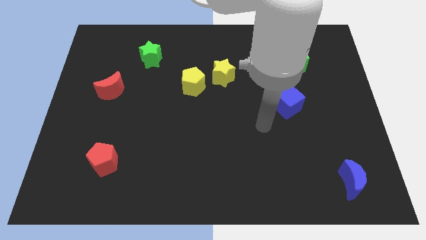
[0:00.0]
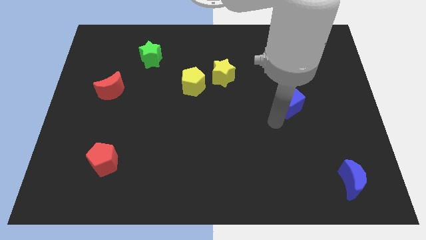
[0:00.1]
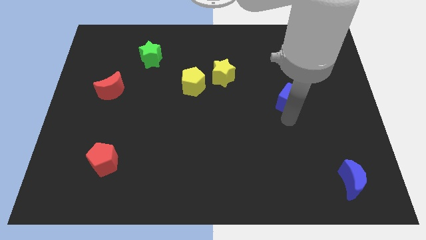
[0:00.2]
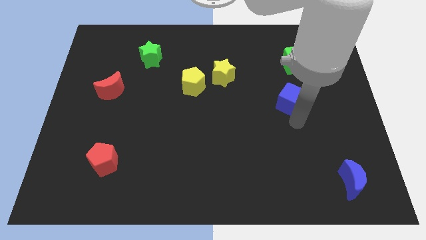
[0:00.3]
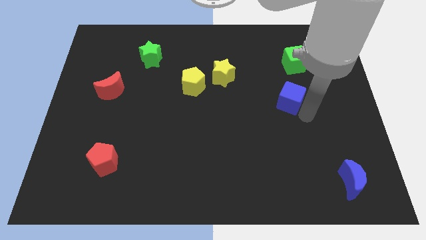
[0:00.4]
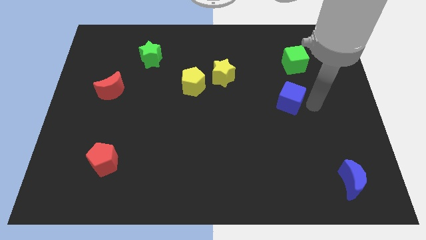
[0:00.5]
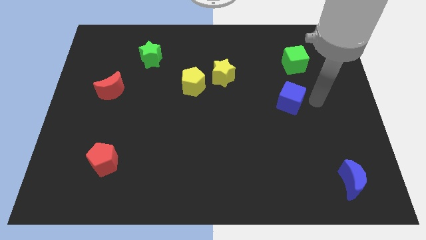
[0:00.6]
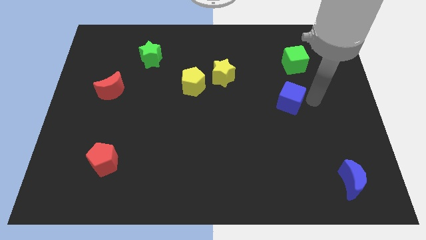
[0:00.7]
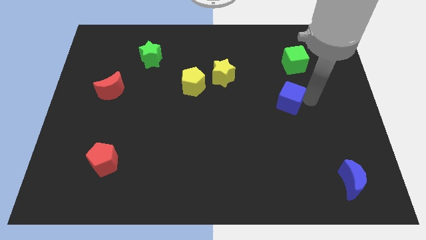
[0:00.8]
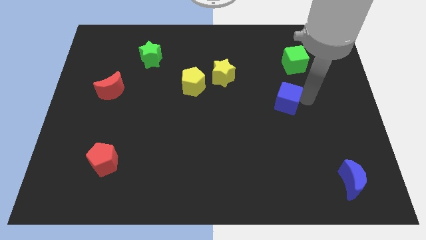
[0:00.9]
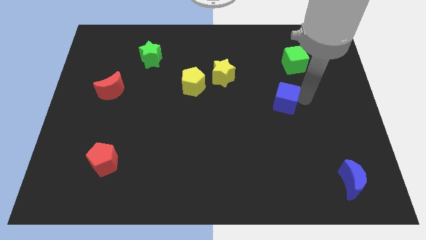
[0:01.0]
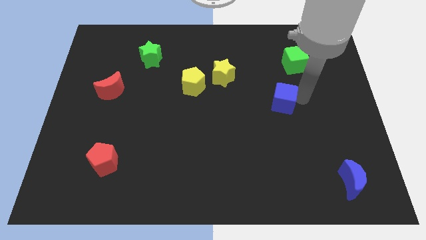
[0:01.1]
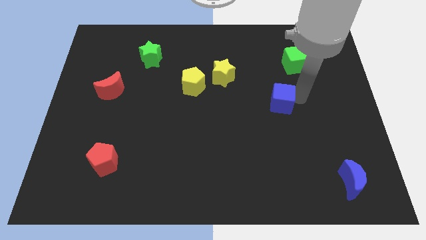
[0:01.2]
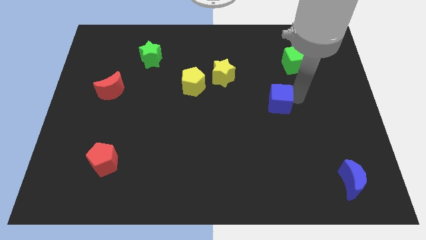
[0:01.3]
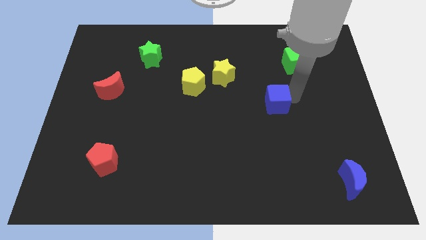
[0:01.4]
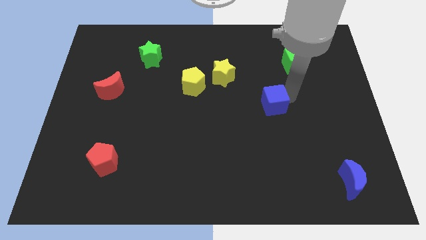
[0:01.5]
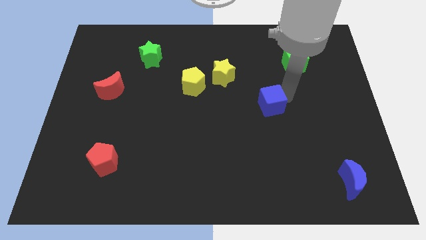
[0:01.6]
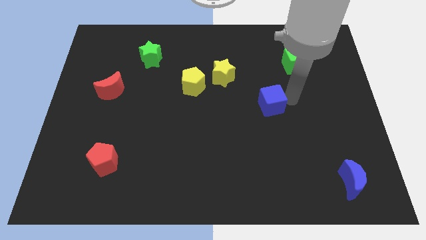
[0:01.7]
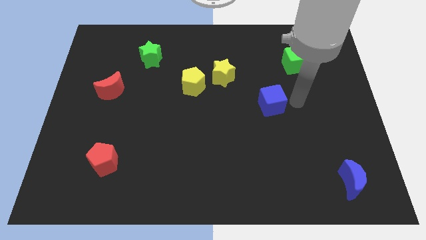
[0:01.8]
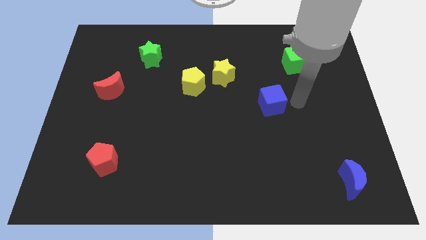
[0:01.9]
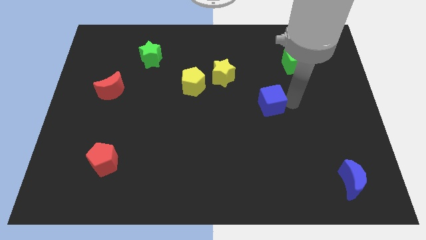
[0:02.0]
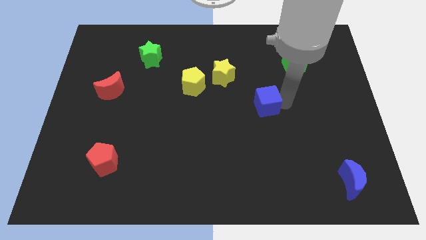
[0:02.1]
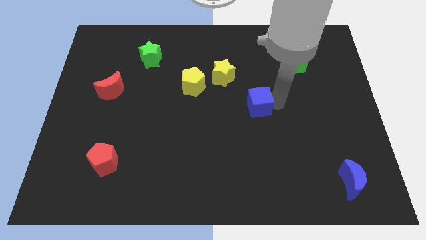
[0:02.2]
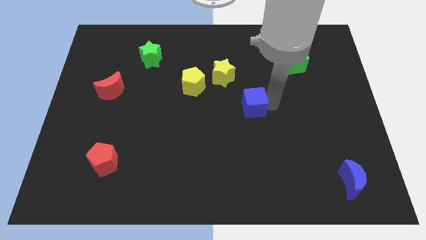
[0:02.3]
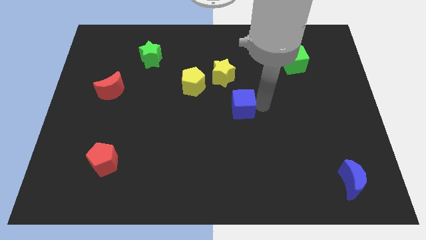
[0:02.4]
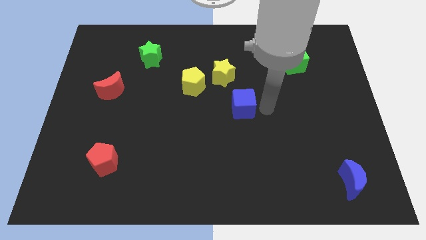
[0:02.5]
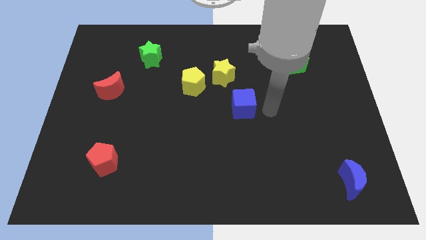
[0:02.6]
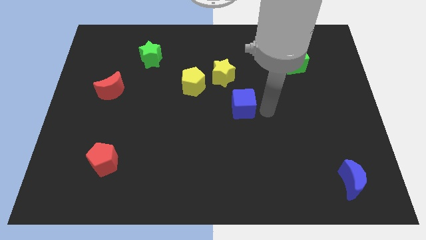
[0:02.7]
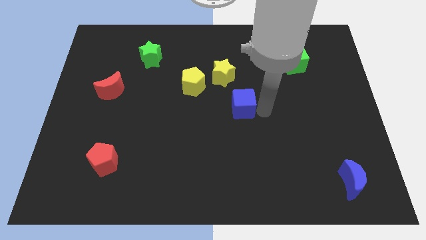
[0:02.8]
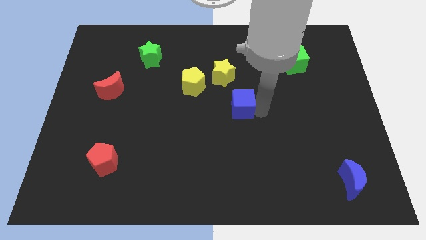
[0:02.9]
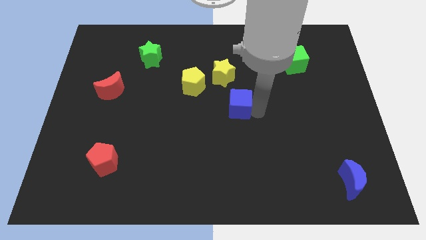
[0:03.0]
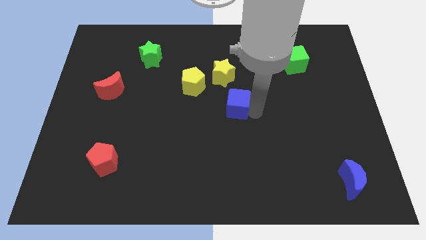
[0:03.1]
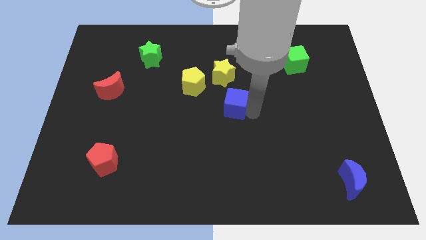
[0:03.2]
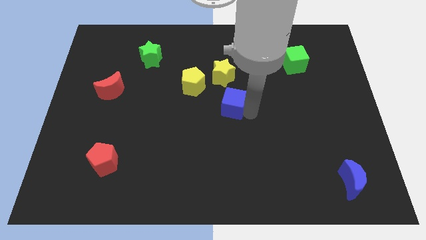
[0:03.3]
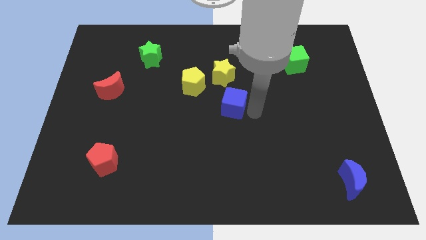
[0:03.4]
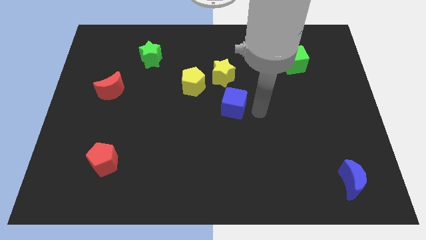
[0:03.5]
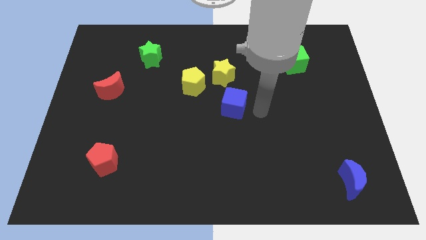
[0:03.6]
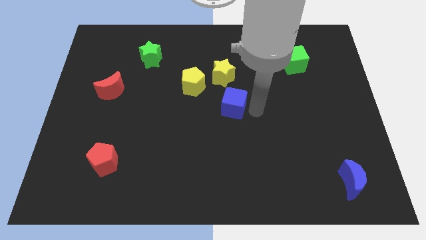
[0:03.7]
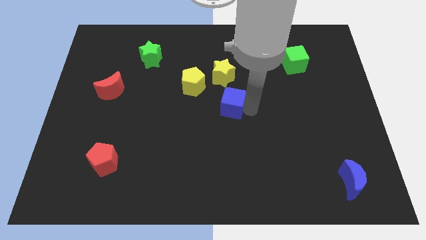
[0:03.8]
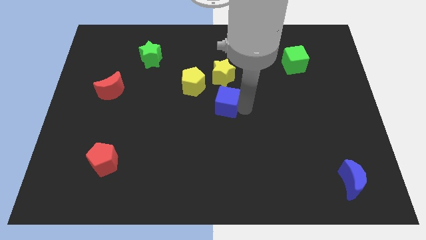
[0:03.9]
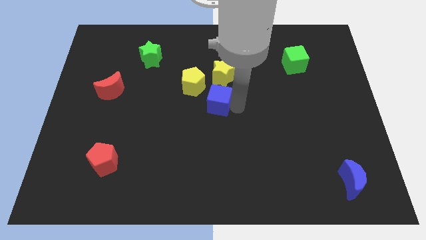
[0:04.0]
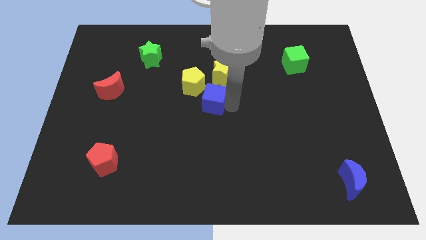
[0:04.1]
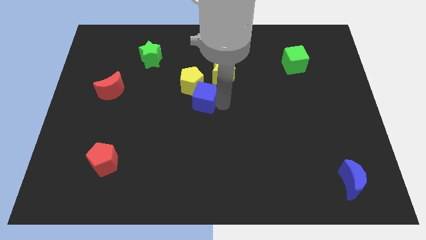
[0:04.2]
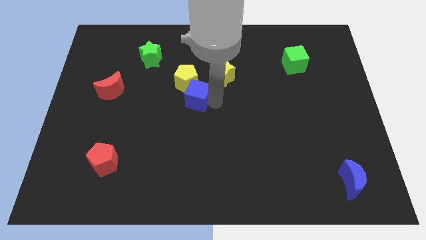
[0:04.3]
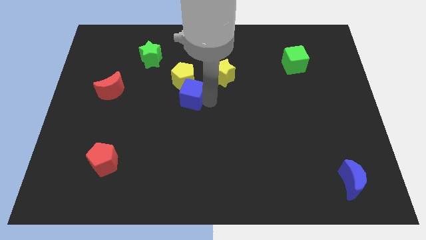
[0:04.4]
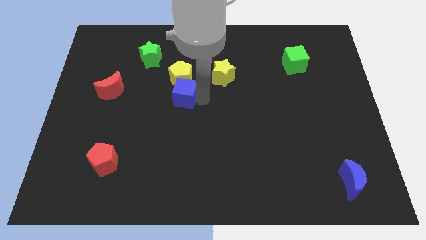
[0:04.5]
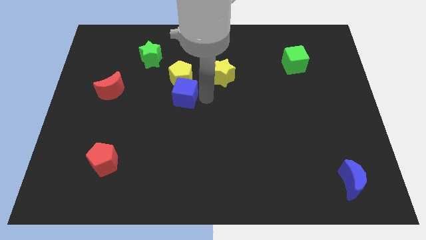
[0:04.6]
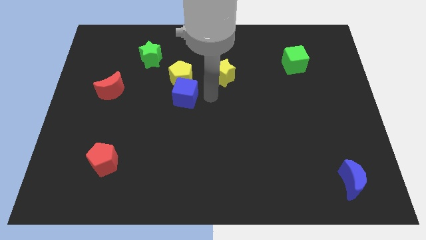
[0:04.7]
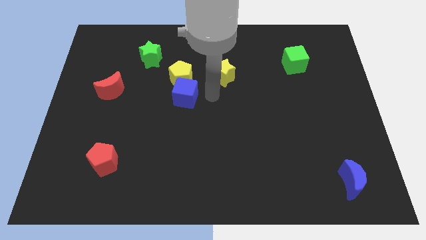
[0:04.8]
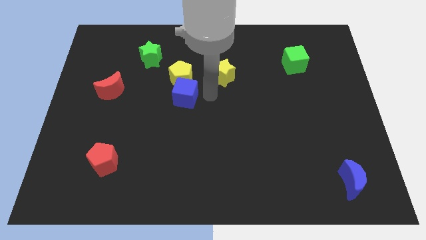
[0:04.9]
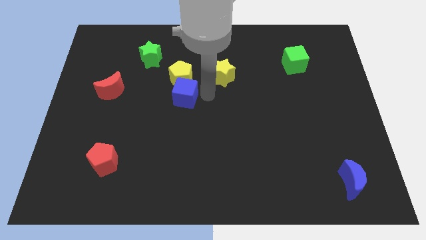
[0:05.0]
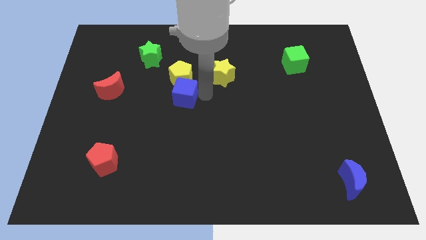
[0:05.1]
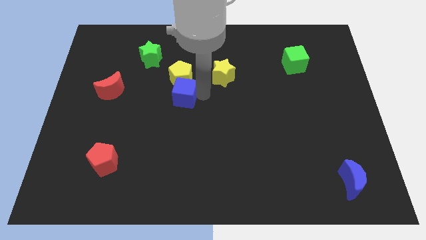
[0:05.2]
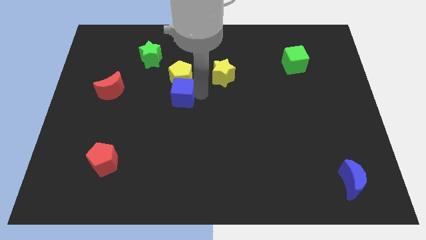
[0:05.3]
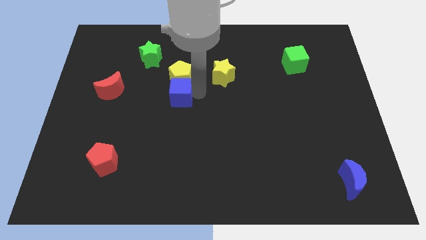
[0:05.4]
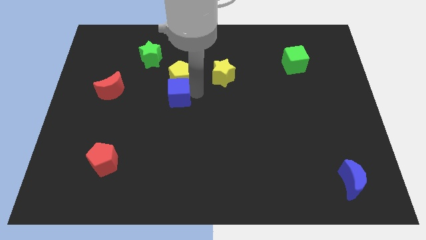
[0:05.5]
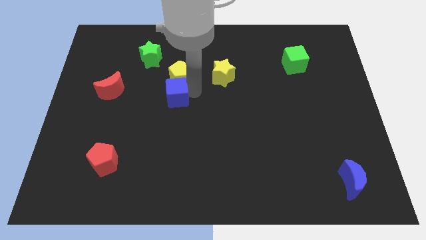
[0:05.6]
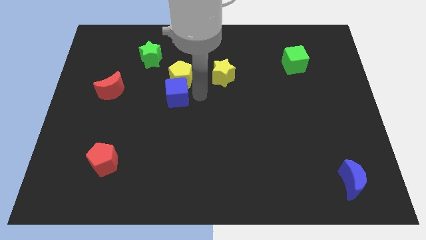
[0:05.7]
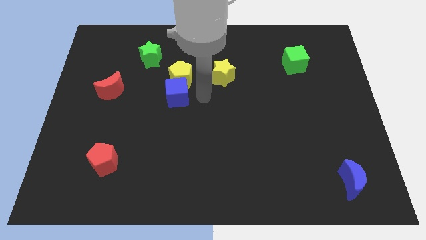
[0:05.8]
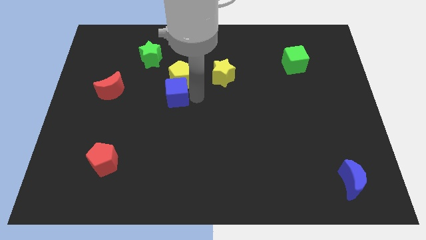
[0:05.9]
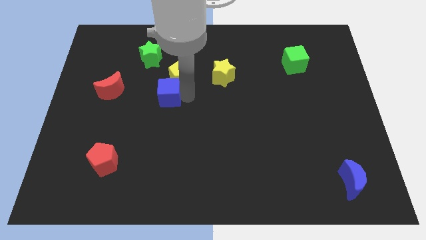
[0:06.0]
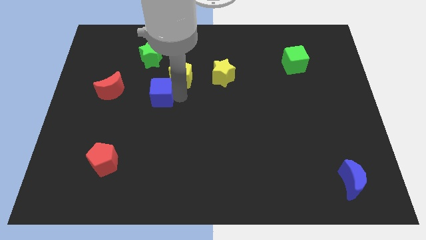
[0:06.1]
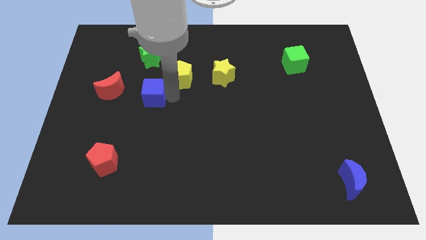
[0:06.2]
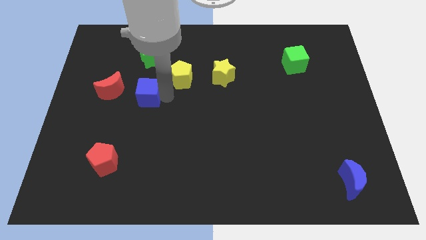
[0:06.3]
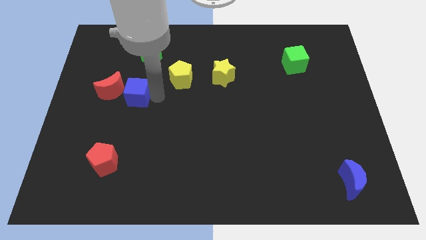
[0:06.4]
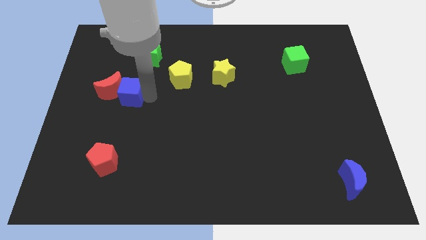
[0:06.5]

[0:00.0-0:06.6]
push the blue cube next to the red moon
